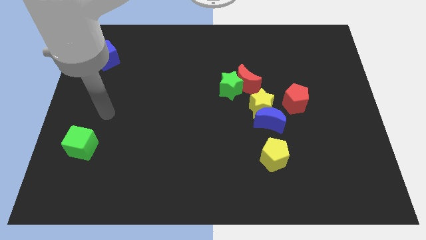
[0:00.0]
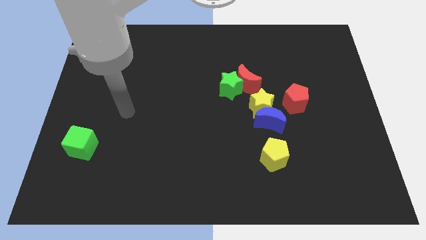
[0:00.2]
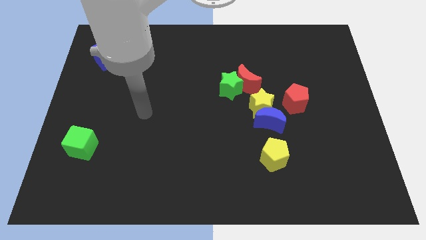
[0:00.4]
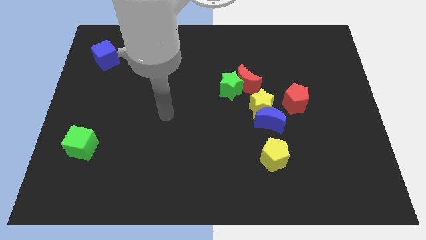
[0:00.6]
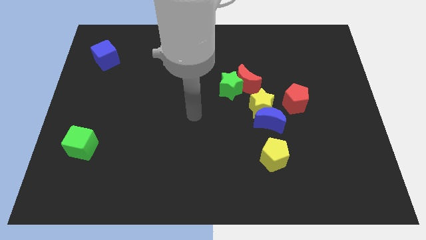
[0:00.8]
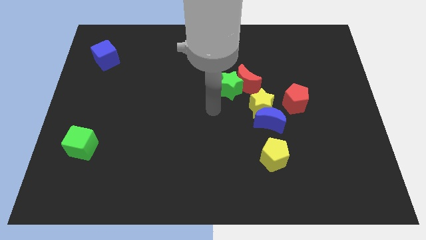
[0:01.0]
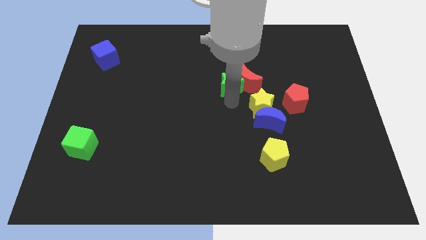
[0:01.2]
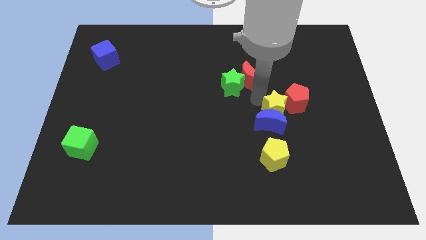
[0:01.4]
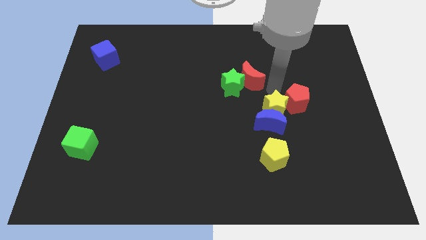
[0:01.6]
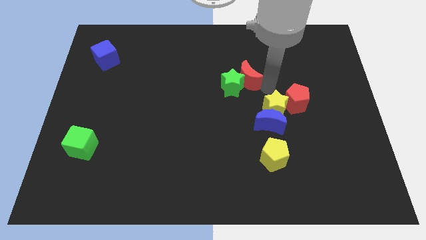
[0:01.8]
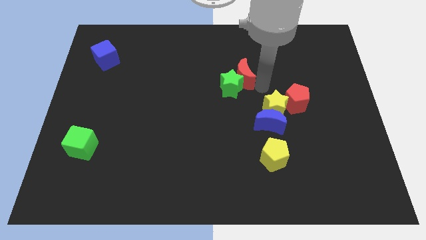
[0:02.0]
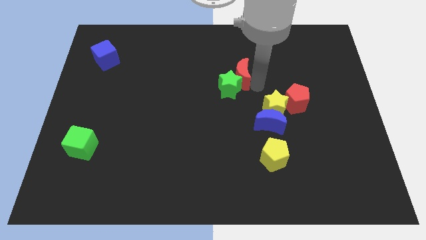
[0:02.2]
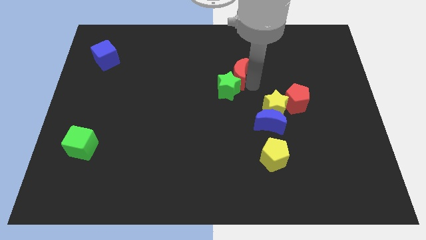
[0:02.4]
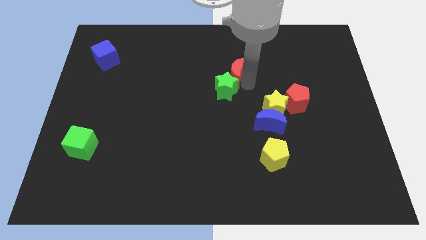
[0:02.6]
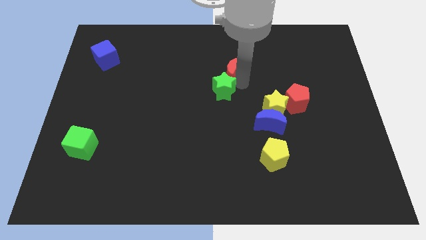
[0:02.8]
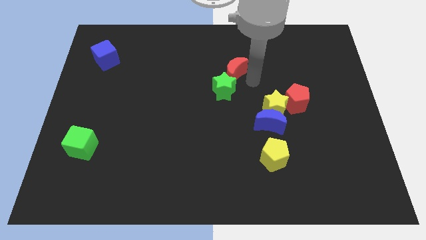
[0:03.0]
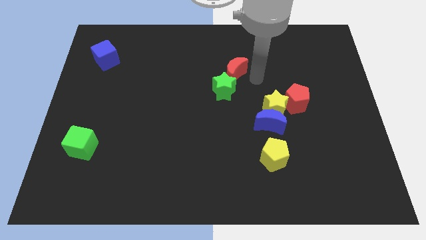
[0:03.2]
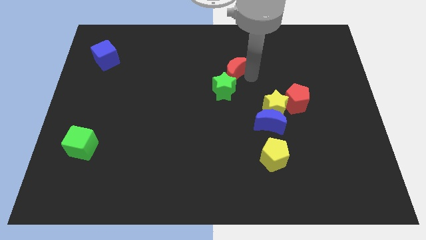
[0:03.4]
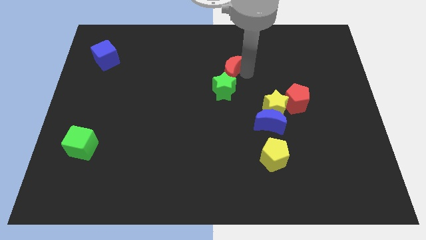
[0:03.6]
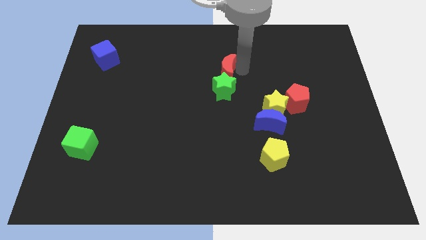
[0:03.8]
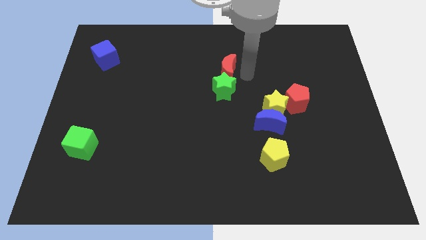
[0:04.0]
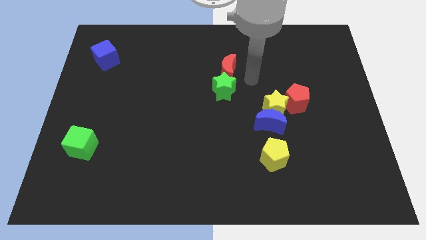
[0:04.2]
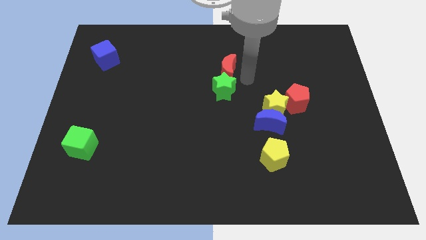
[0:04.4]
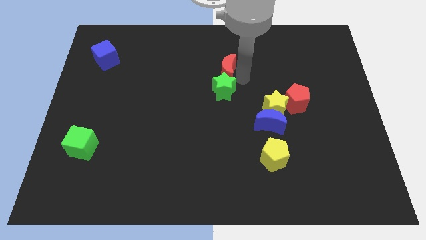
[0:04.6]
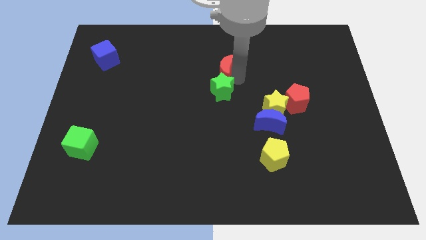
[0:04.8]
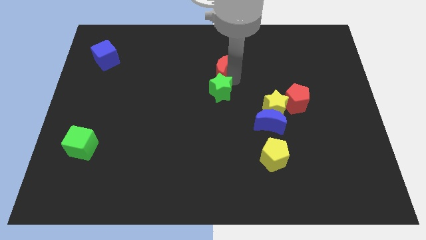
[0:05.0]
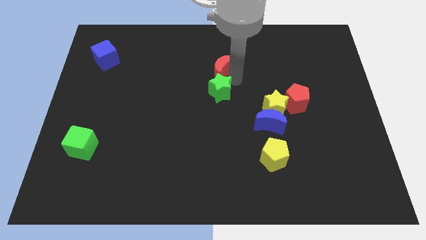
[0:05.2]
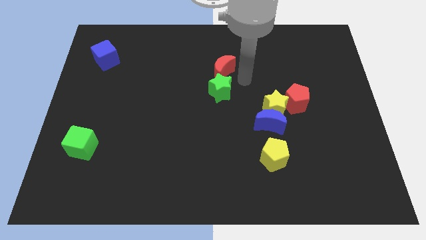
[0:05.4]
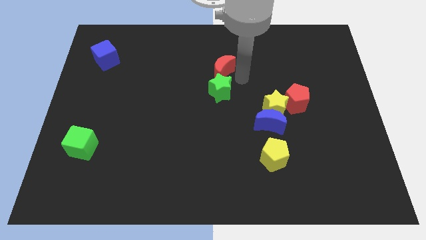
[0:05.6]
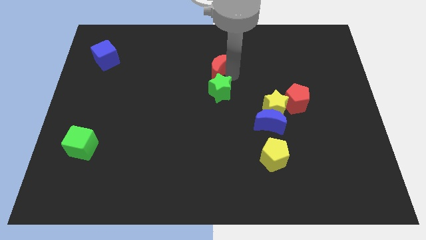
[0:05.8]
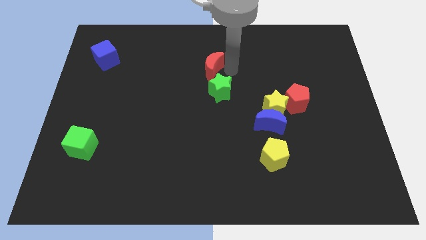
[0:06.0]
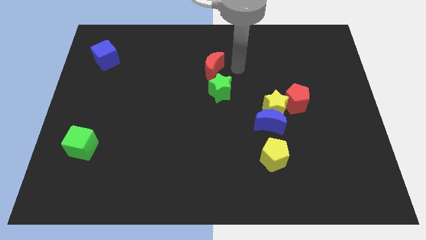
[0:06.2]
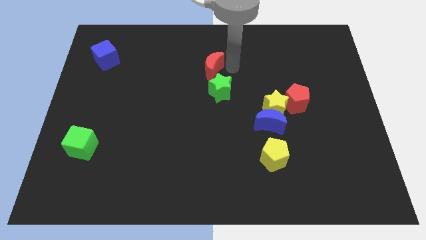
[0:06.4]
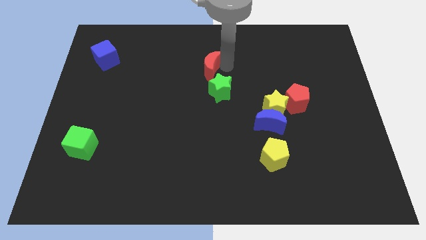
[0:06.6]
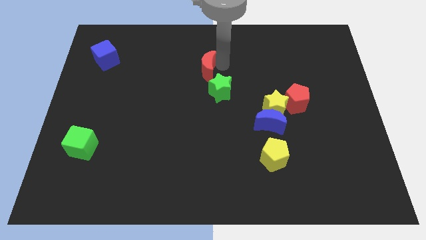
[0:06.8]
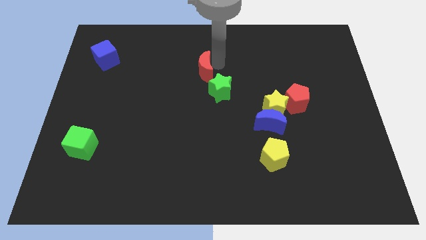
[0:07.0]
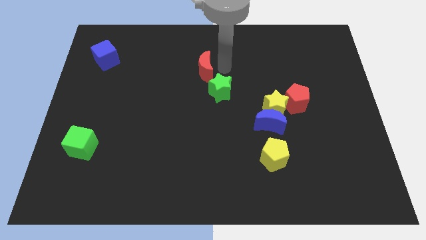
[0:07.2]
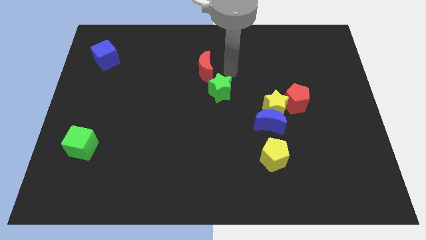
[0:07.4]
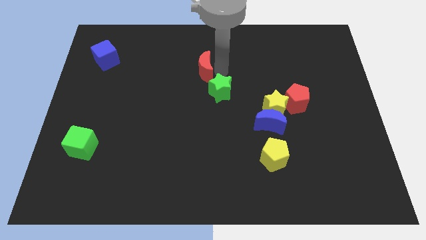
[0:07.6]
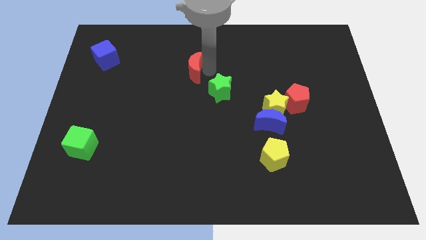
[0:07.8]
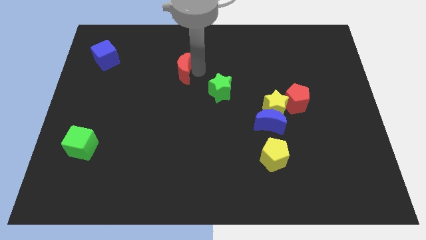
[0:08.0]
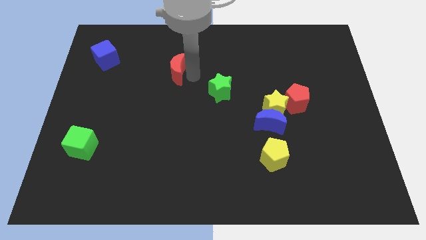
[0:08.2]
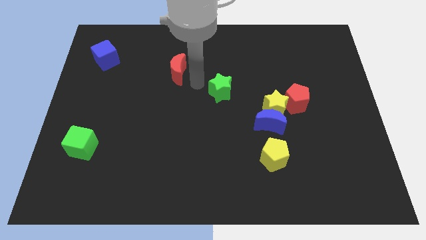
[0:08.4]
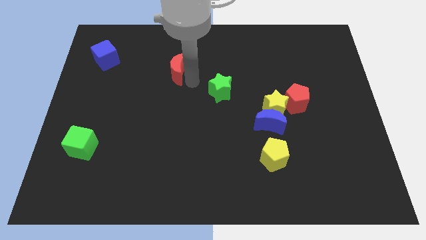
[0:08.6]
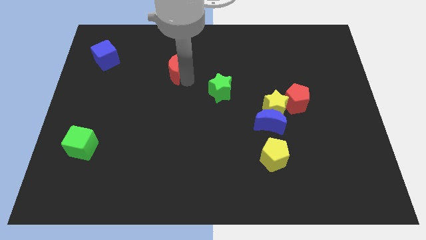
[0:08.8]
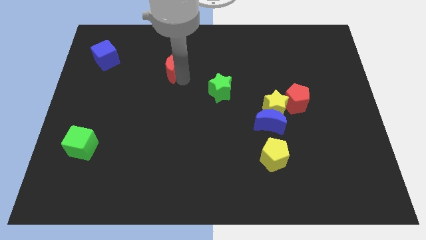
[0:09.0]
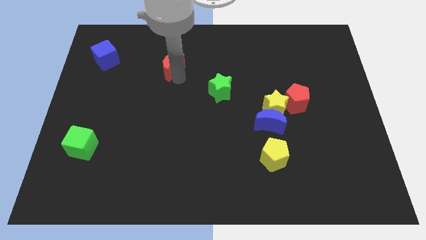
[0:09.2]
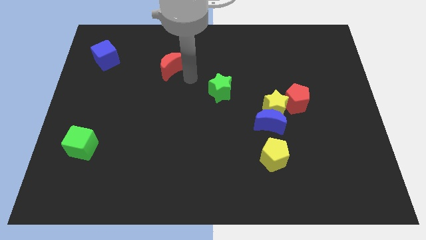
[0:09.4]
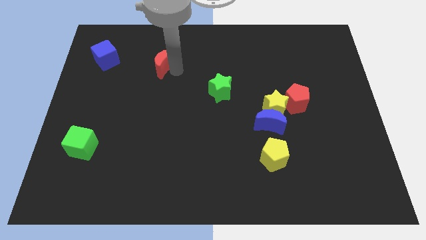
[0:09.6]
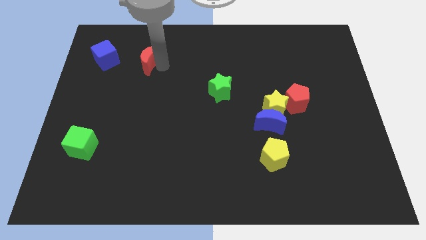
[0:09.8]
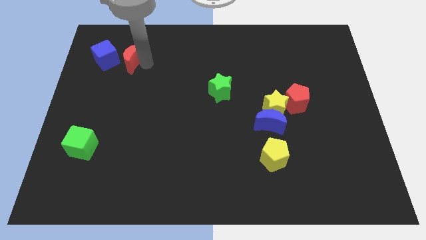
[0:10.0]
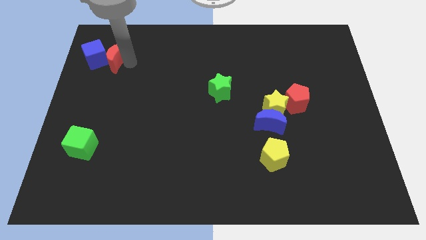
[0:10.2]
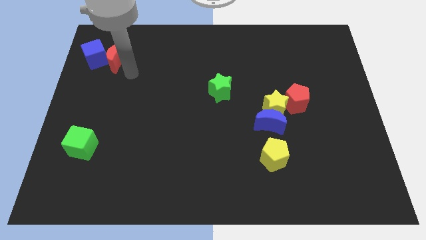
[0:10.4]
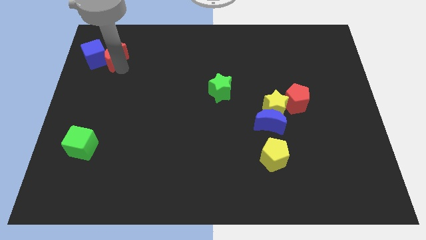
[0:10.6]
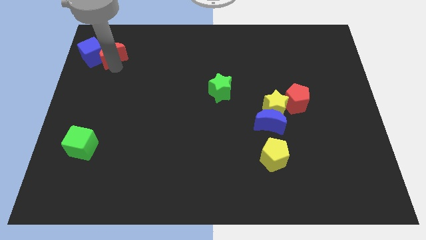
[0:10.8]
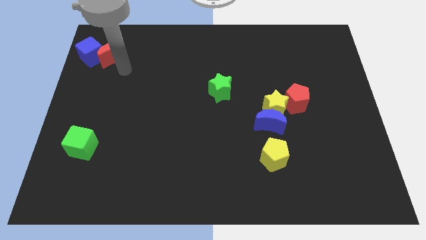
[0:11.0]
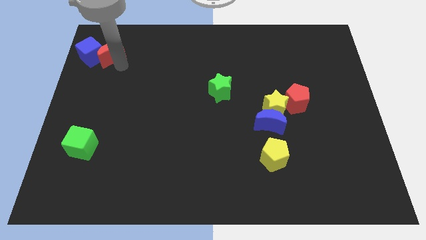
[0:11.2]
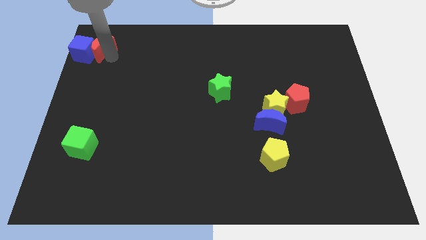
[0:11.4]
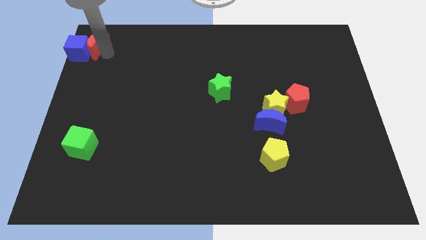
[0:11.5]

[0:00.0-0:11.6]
slide the red moon to the top left
